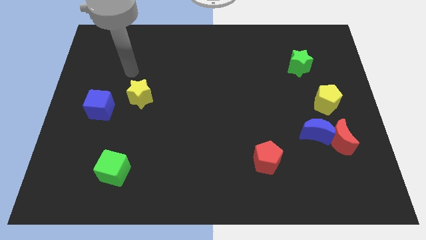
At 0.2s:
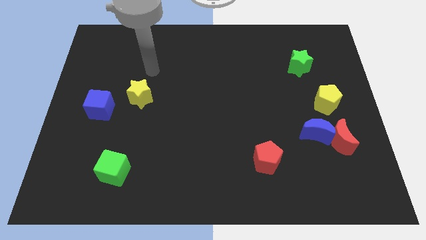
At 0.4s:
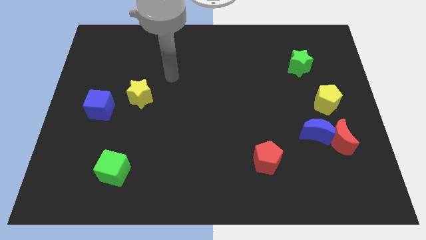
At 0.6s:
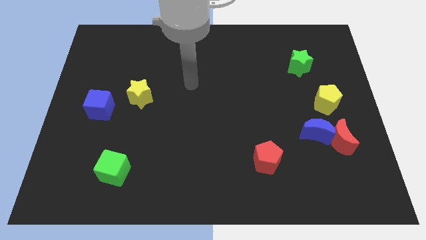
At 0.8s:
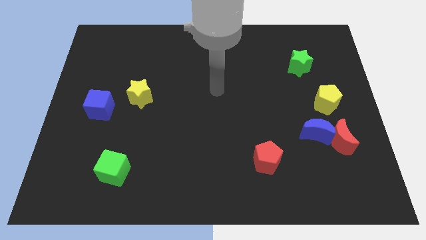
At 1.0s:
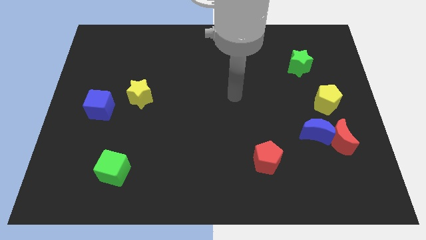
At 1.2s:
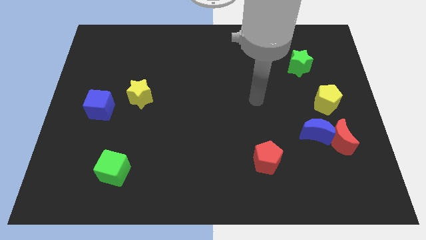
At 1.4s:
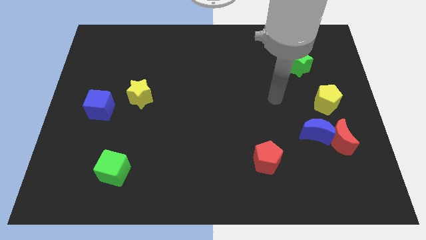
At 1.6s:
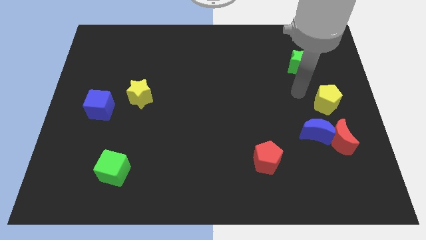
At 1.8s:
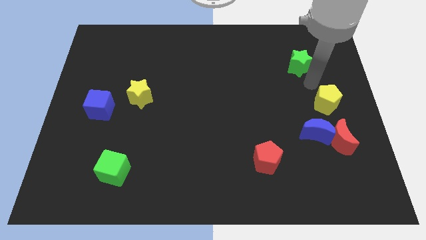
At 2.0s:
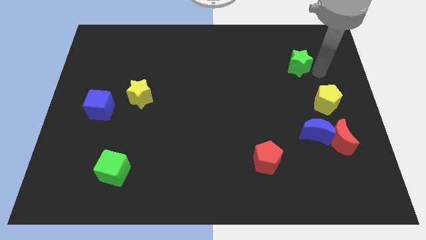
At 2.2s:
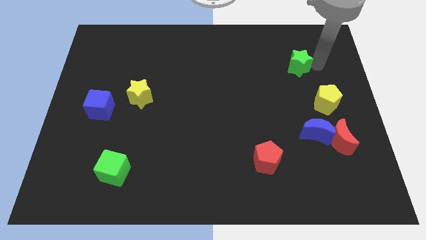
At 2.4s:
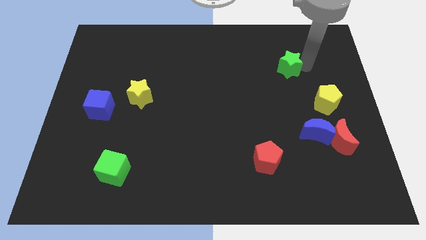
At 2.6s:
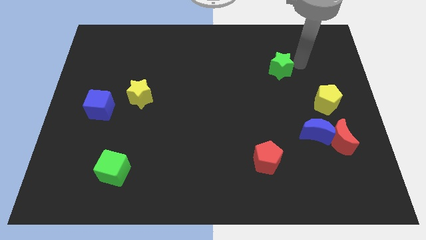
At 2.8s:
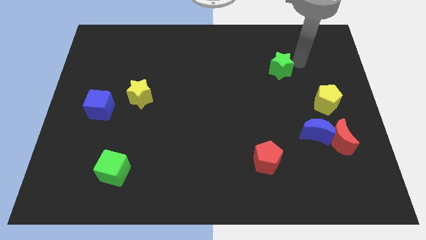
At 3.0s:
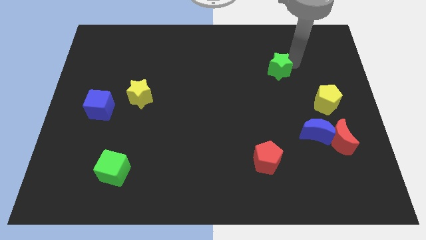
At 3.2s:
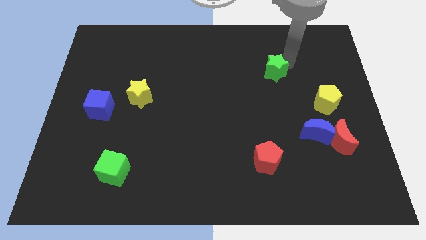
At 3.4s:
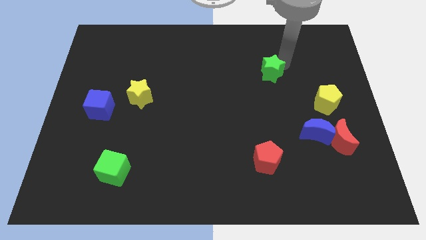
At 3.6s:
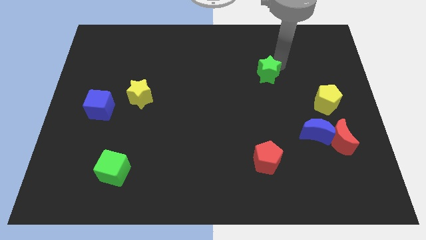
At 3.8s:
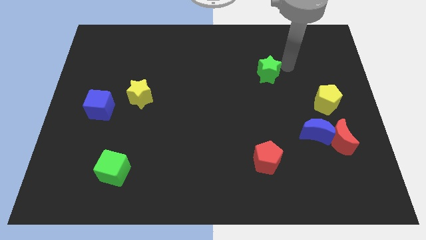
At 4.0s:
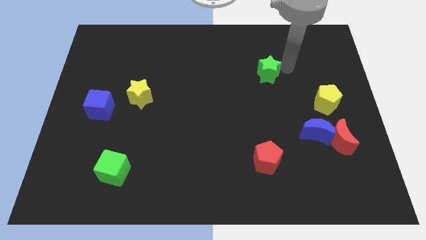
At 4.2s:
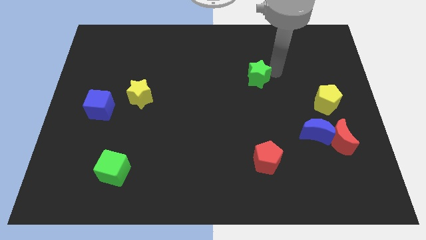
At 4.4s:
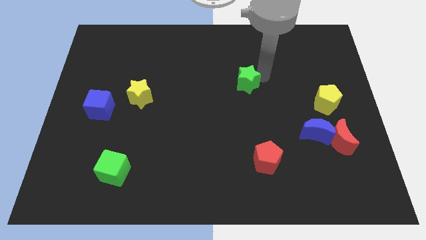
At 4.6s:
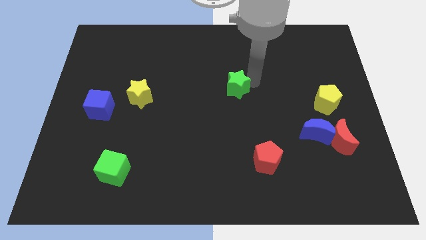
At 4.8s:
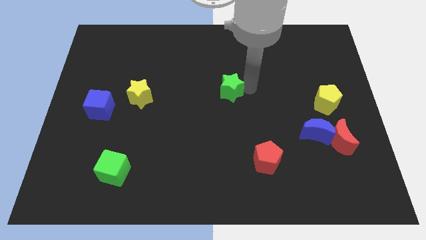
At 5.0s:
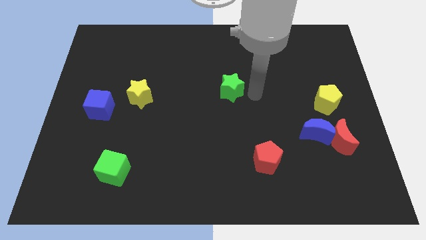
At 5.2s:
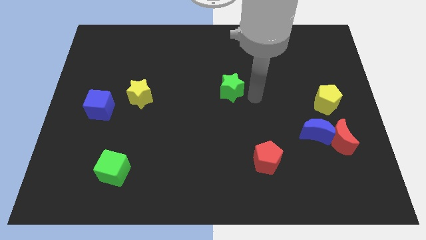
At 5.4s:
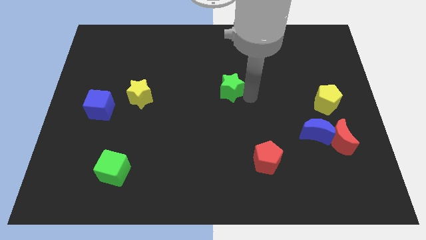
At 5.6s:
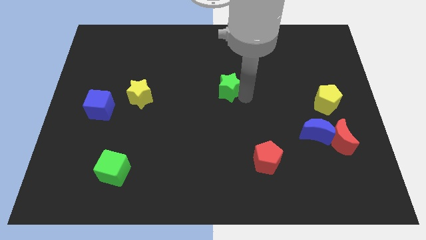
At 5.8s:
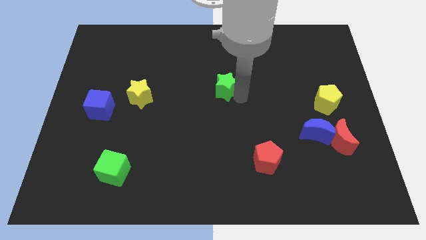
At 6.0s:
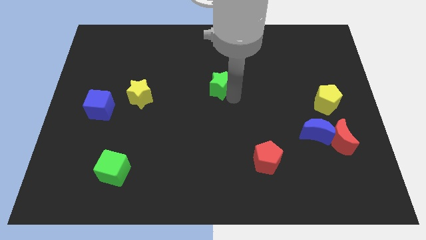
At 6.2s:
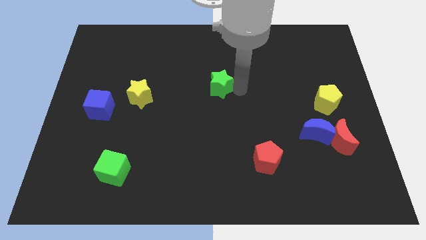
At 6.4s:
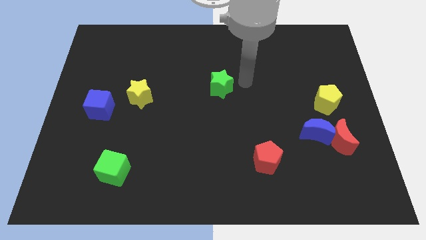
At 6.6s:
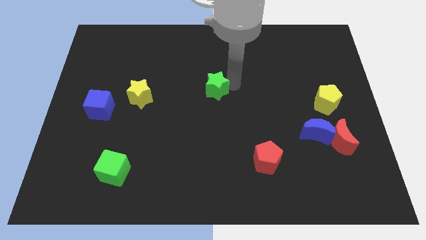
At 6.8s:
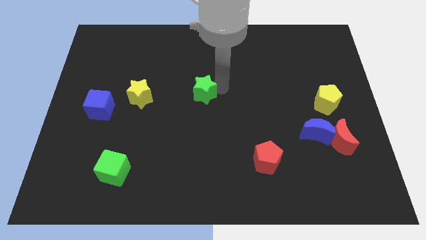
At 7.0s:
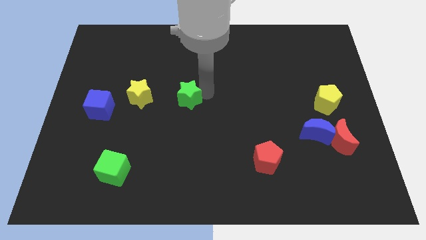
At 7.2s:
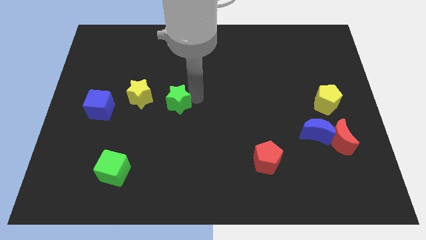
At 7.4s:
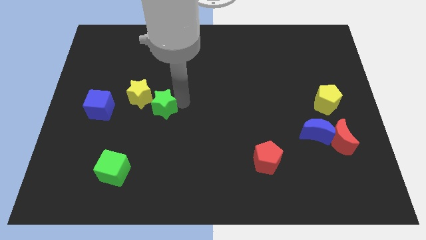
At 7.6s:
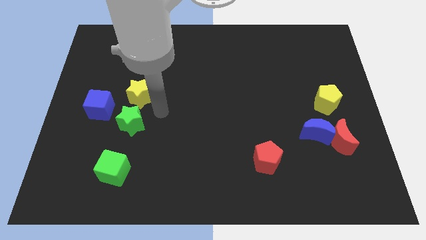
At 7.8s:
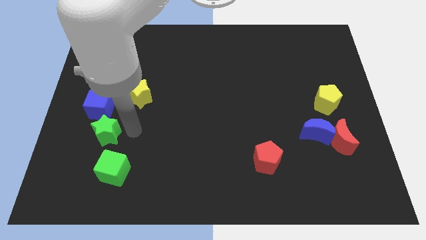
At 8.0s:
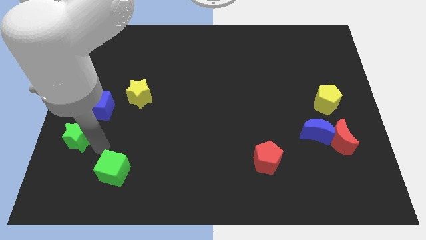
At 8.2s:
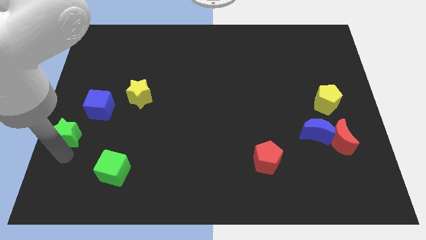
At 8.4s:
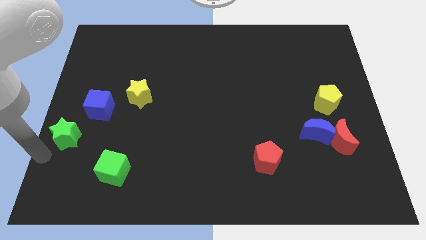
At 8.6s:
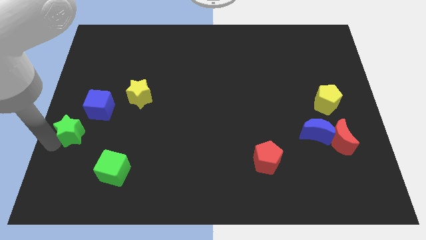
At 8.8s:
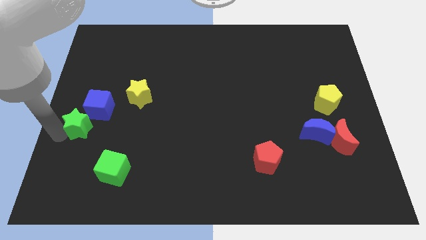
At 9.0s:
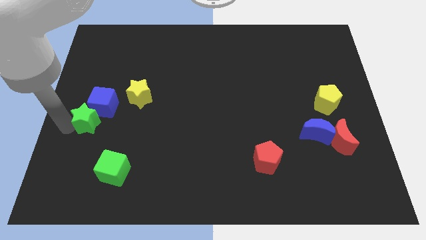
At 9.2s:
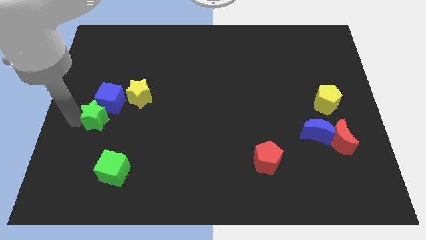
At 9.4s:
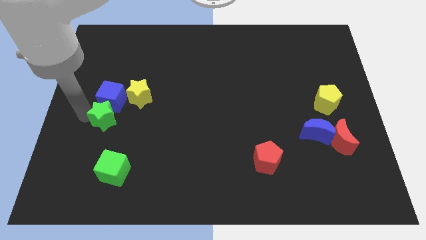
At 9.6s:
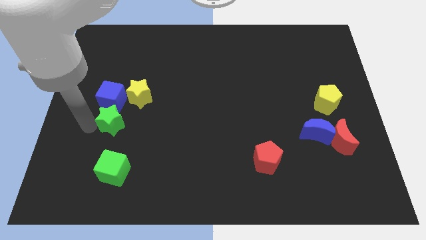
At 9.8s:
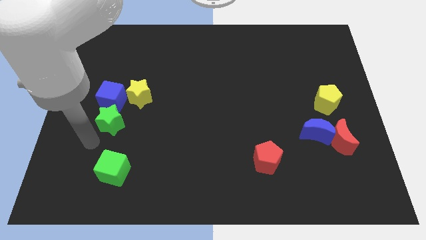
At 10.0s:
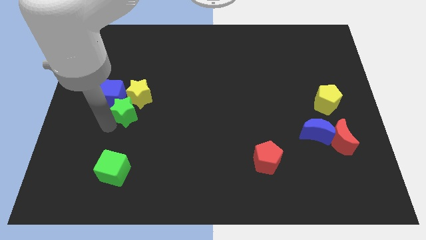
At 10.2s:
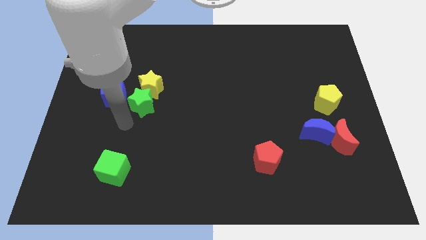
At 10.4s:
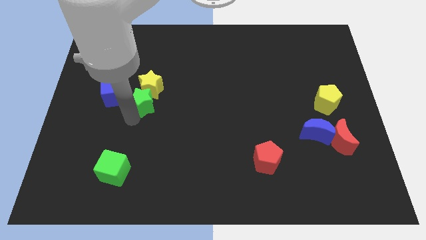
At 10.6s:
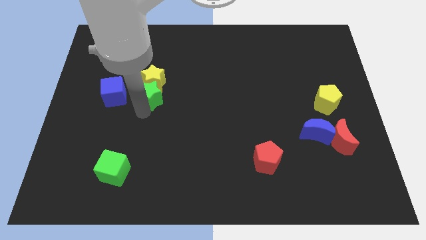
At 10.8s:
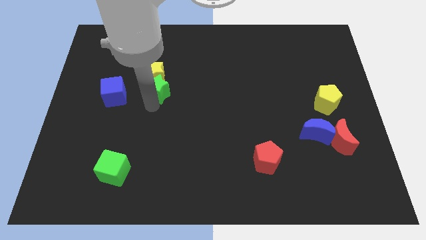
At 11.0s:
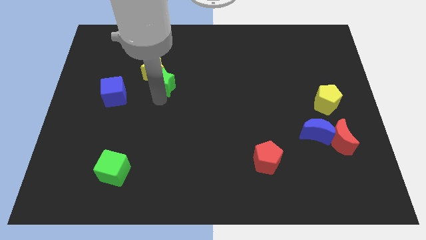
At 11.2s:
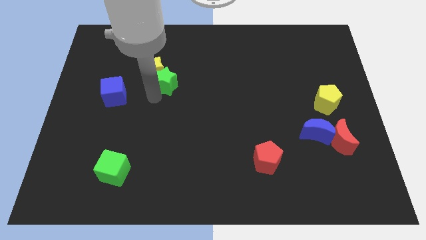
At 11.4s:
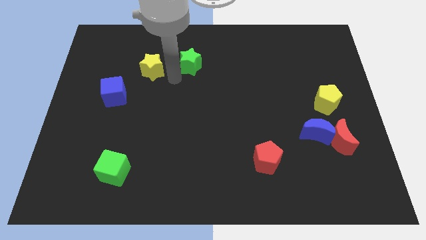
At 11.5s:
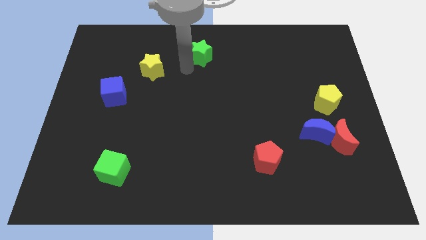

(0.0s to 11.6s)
slide the green star to the top

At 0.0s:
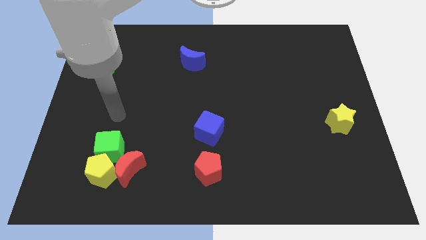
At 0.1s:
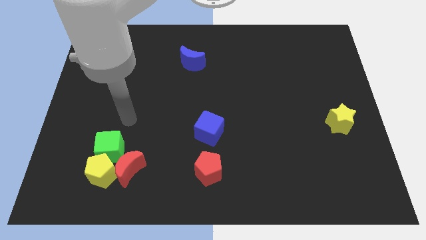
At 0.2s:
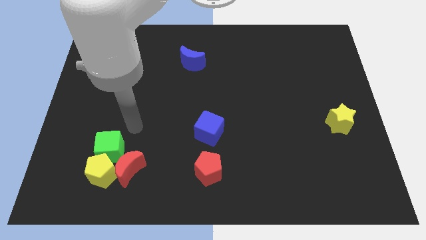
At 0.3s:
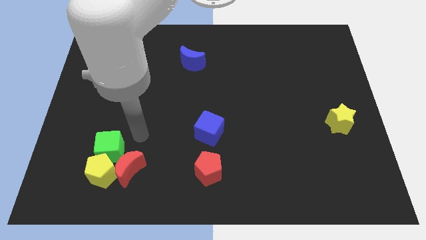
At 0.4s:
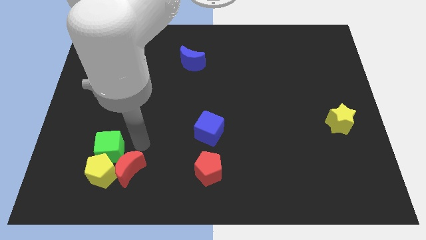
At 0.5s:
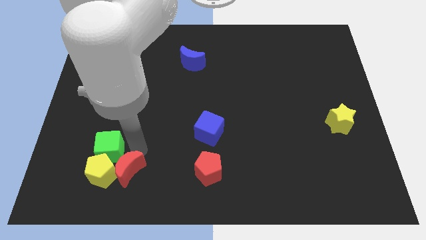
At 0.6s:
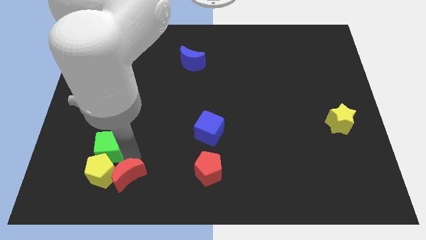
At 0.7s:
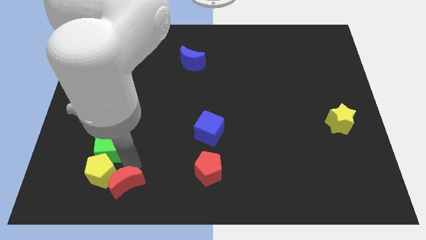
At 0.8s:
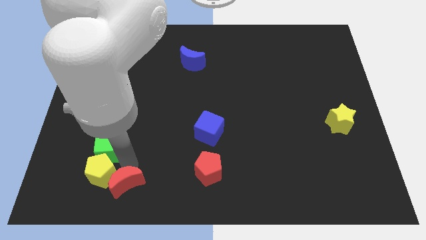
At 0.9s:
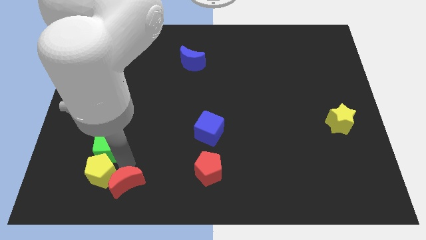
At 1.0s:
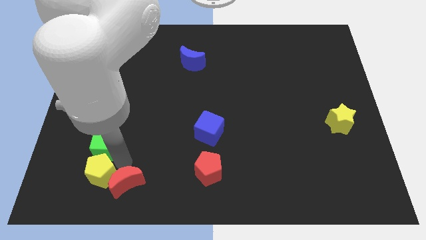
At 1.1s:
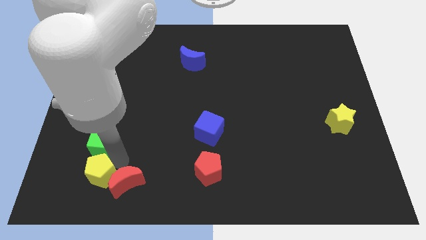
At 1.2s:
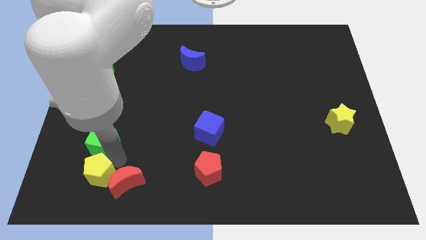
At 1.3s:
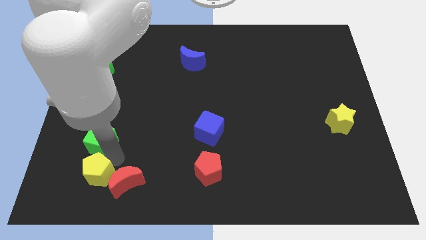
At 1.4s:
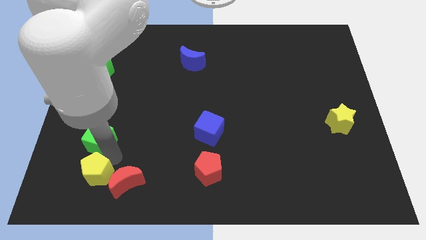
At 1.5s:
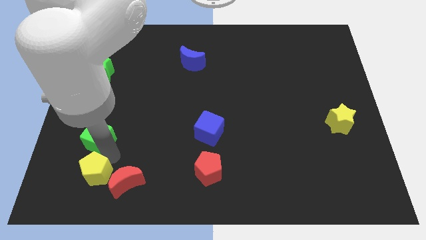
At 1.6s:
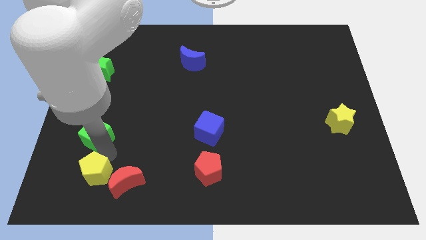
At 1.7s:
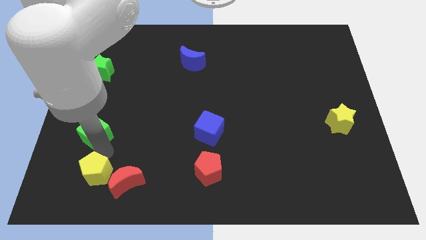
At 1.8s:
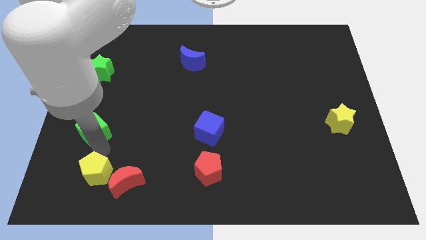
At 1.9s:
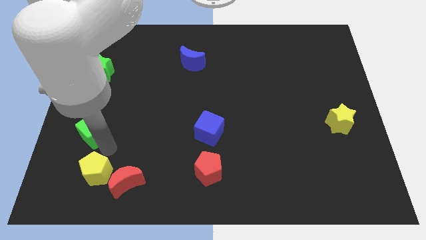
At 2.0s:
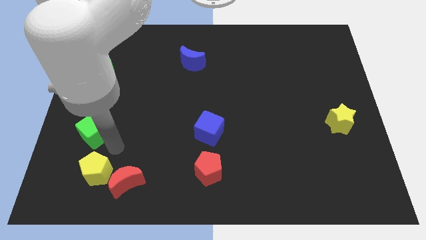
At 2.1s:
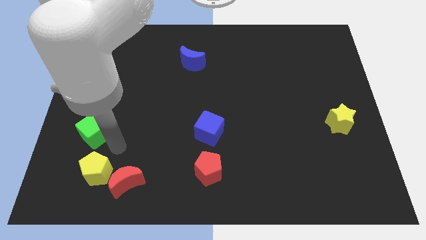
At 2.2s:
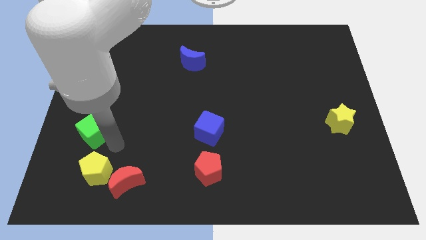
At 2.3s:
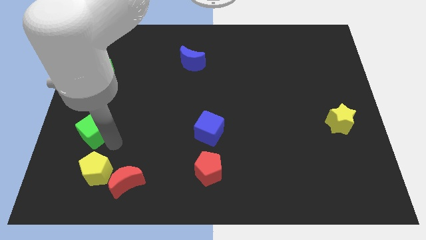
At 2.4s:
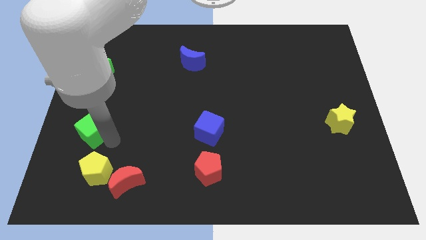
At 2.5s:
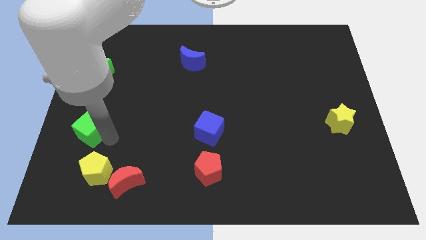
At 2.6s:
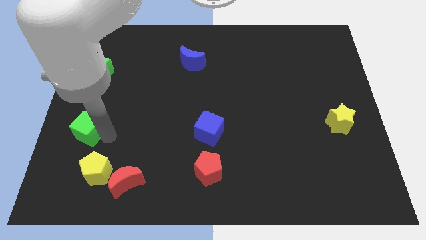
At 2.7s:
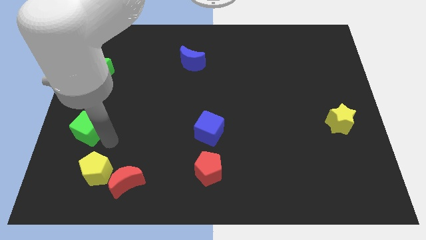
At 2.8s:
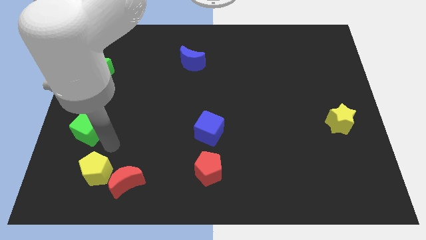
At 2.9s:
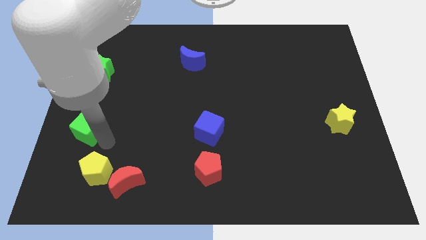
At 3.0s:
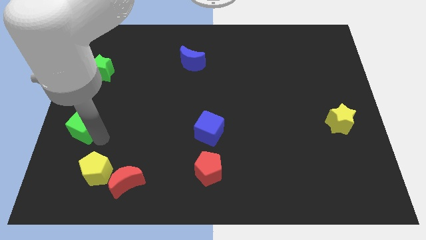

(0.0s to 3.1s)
put the green cube to the left side
